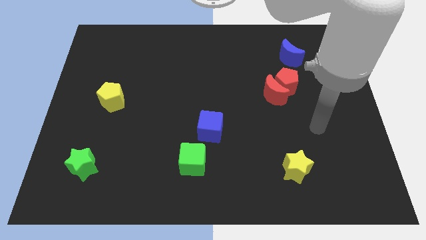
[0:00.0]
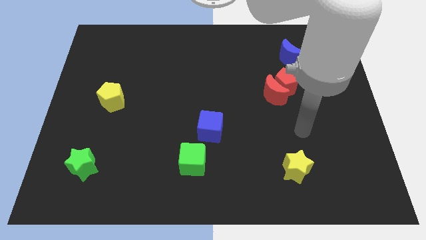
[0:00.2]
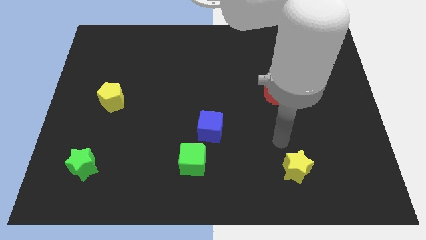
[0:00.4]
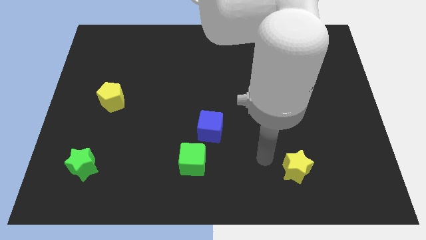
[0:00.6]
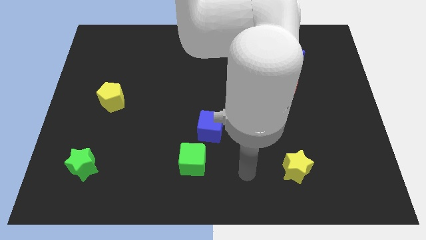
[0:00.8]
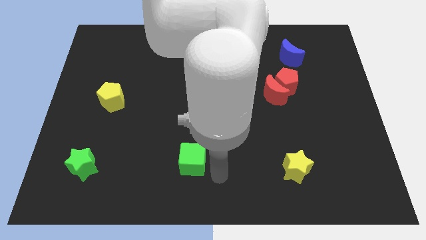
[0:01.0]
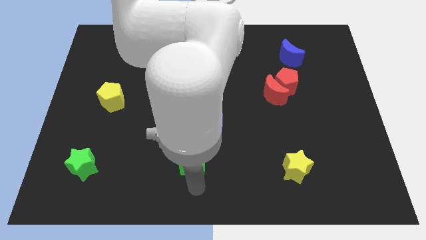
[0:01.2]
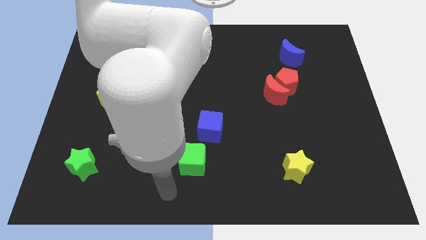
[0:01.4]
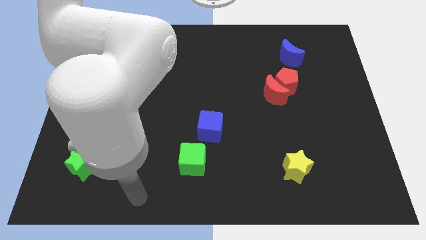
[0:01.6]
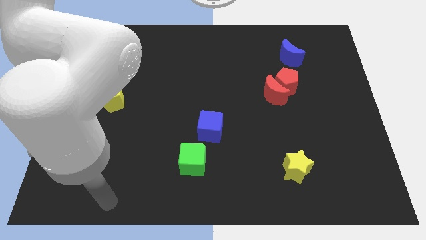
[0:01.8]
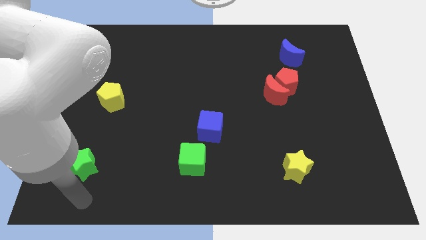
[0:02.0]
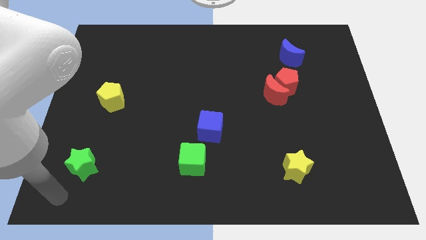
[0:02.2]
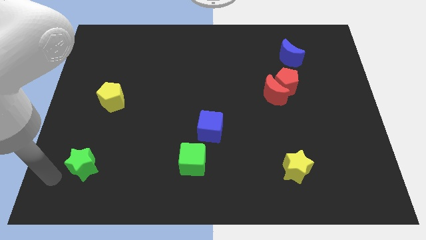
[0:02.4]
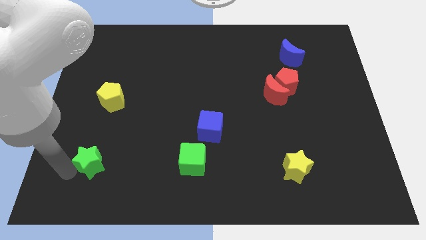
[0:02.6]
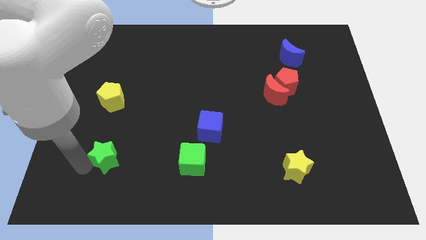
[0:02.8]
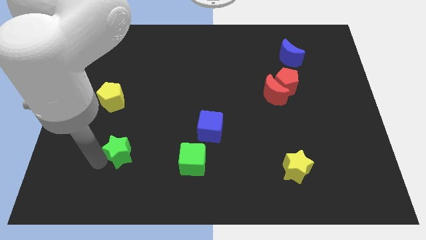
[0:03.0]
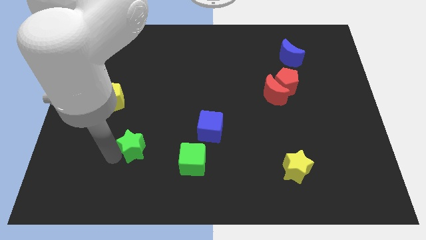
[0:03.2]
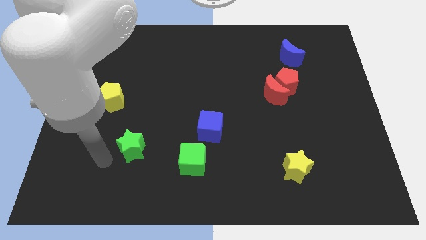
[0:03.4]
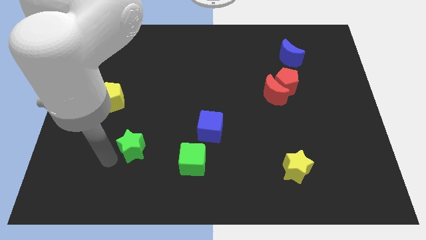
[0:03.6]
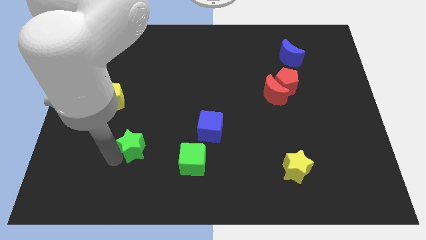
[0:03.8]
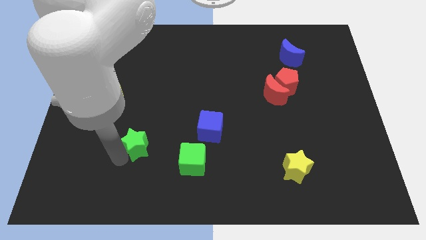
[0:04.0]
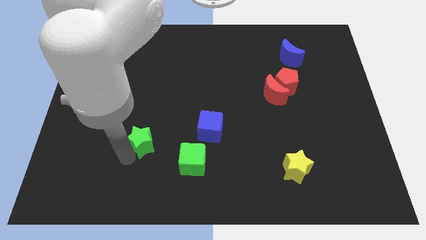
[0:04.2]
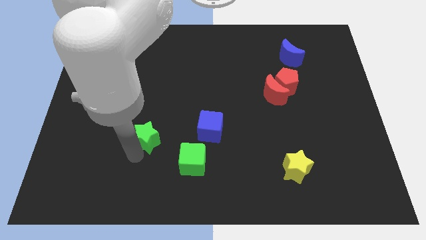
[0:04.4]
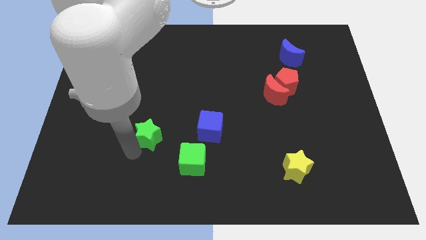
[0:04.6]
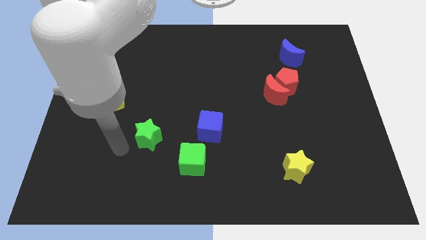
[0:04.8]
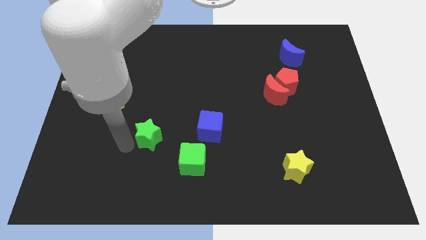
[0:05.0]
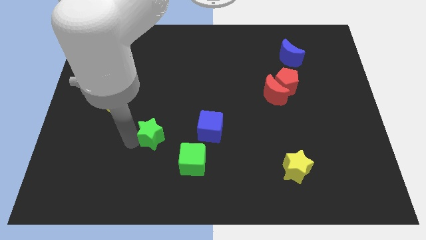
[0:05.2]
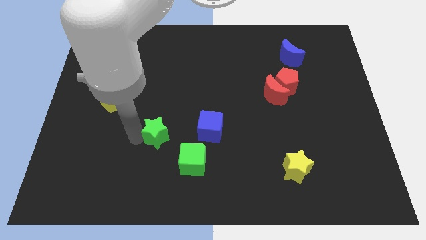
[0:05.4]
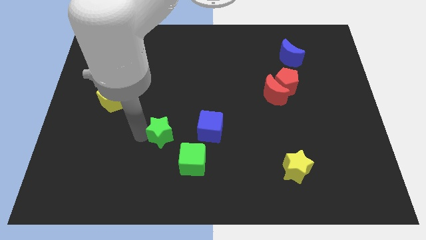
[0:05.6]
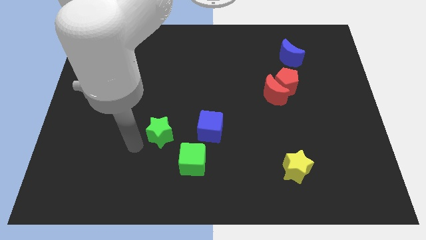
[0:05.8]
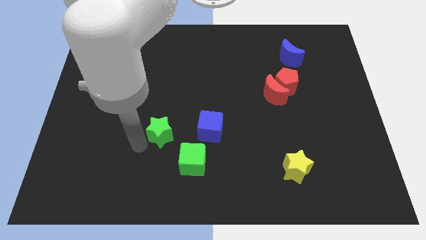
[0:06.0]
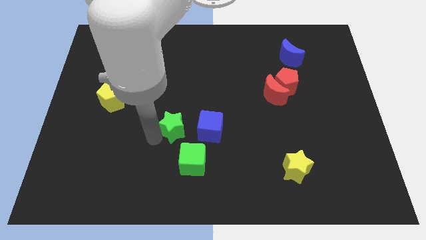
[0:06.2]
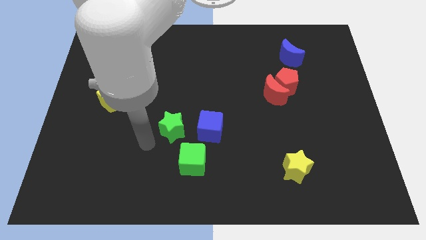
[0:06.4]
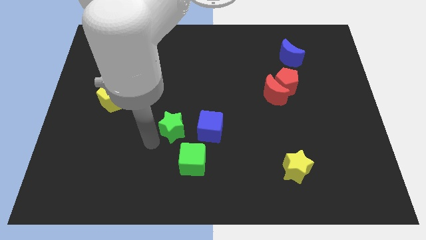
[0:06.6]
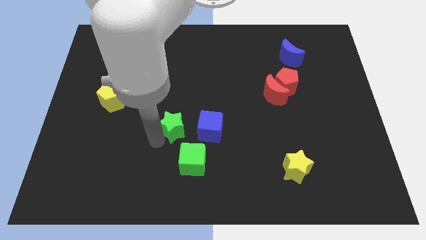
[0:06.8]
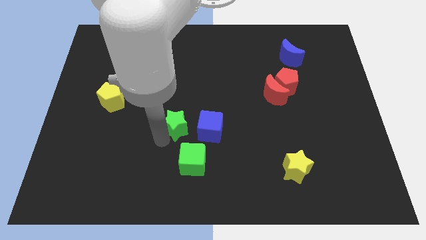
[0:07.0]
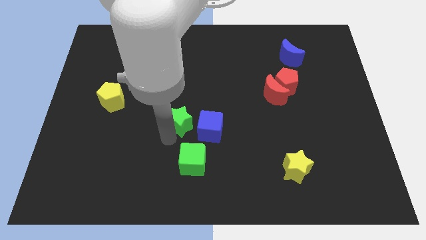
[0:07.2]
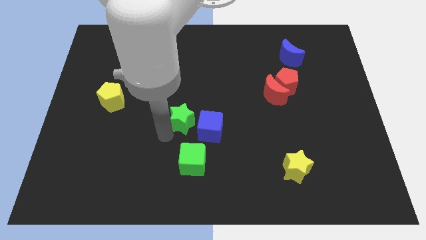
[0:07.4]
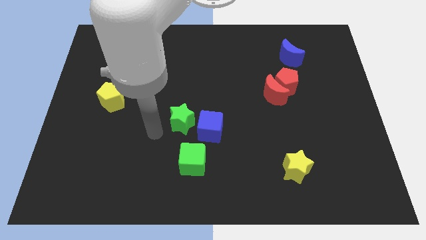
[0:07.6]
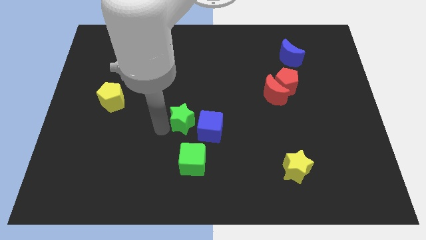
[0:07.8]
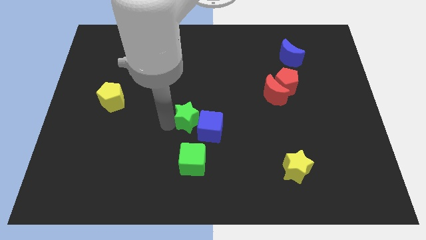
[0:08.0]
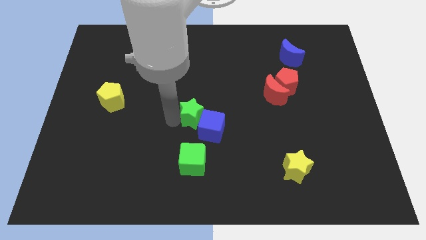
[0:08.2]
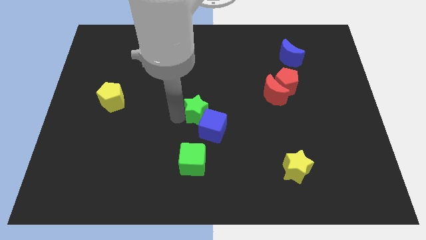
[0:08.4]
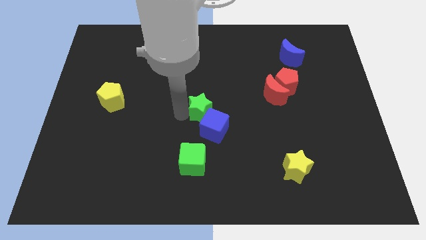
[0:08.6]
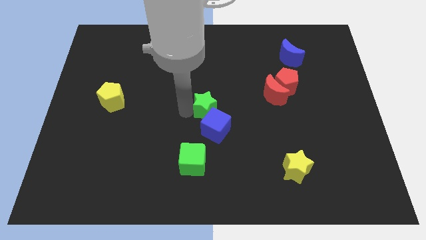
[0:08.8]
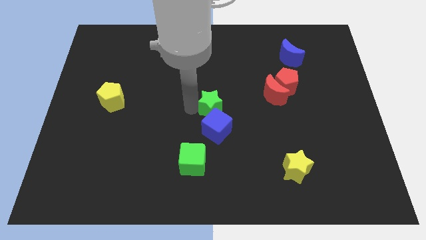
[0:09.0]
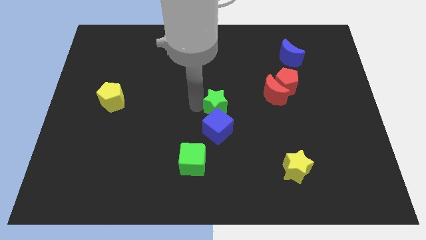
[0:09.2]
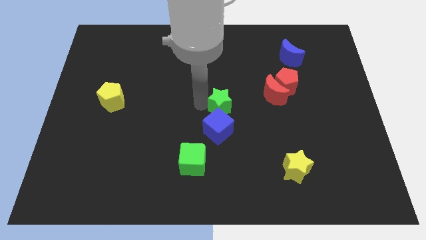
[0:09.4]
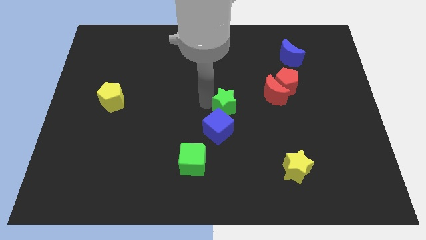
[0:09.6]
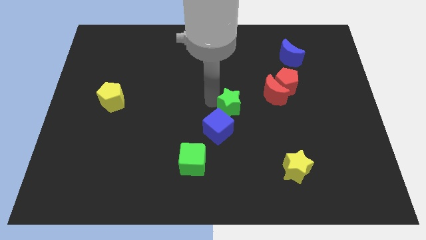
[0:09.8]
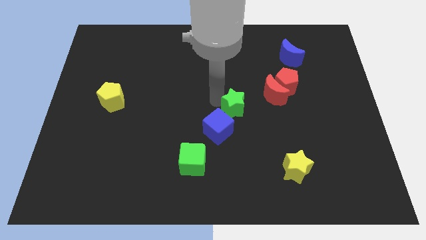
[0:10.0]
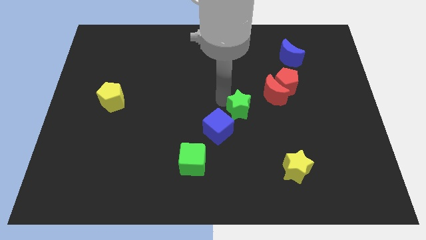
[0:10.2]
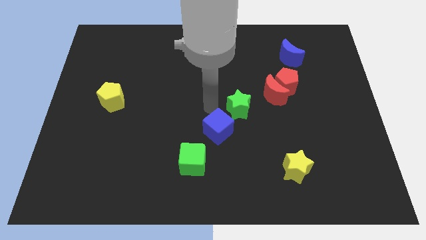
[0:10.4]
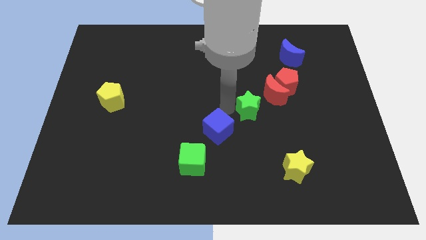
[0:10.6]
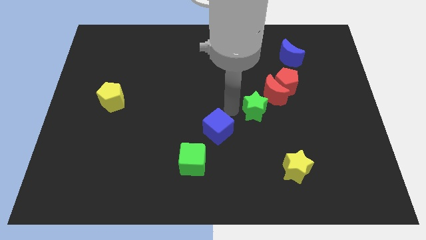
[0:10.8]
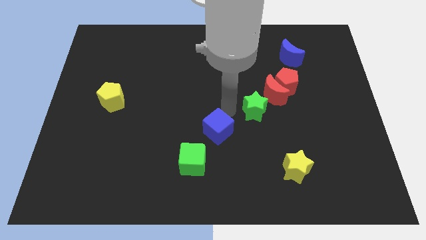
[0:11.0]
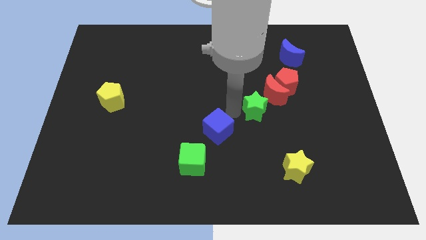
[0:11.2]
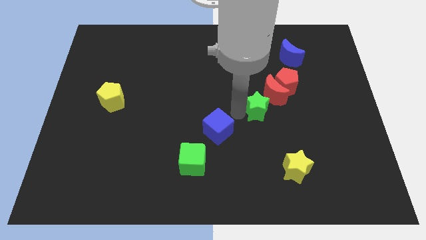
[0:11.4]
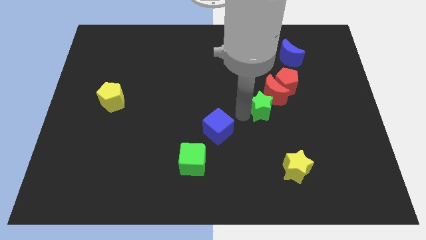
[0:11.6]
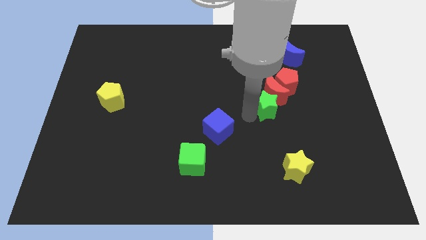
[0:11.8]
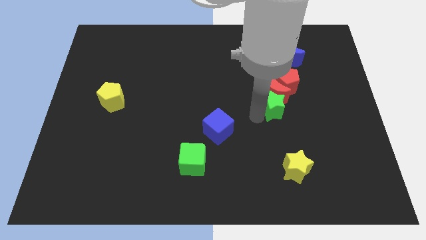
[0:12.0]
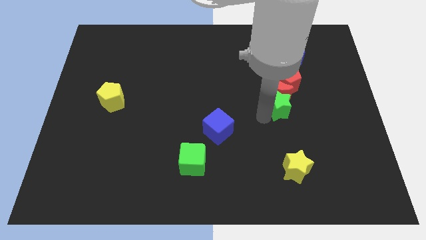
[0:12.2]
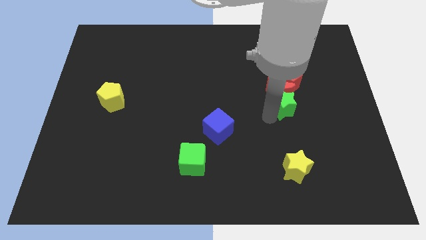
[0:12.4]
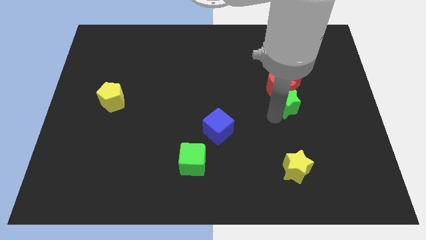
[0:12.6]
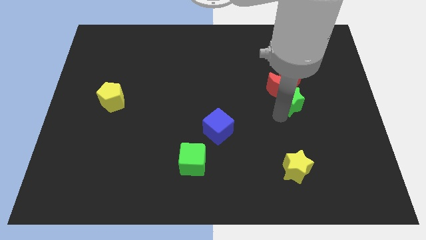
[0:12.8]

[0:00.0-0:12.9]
push the green star below the blue moon
